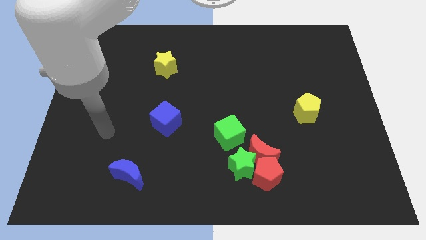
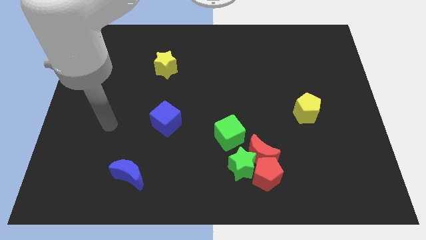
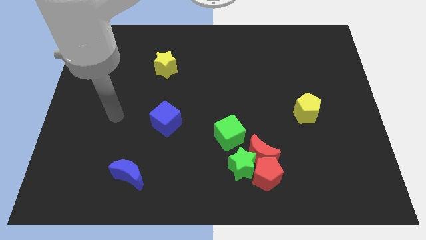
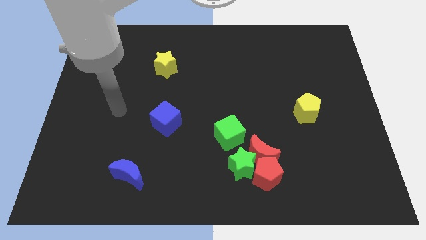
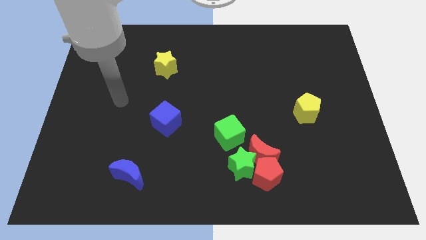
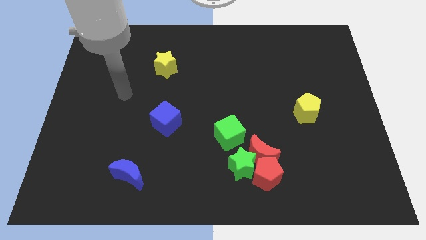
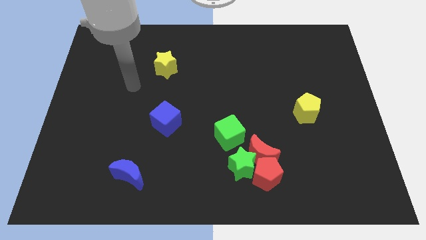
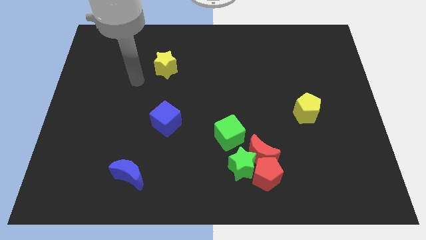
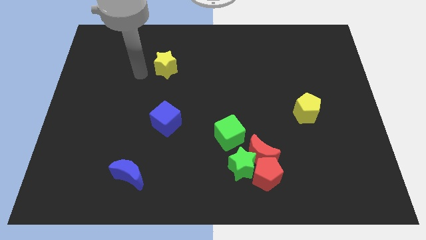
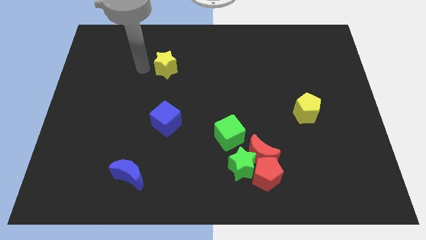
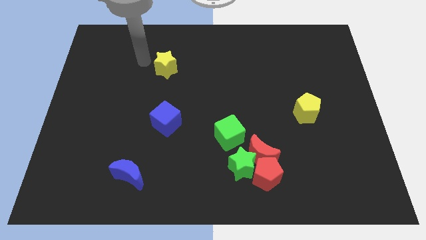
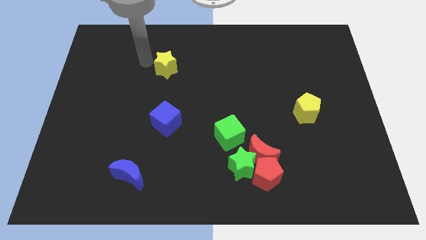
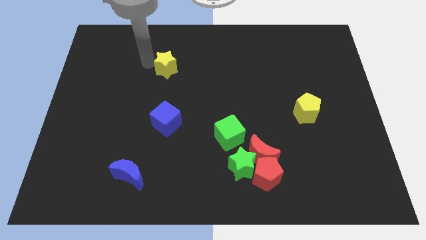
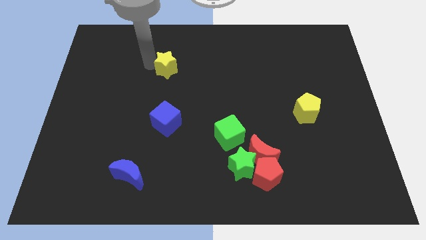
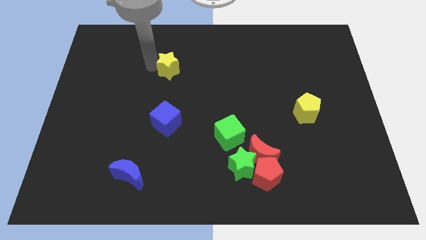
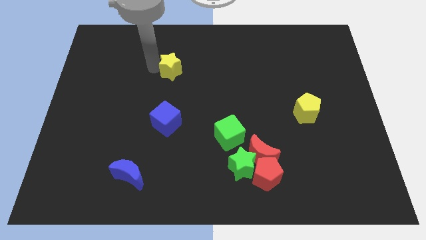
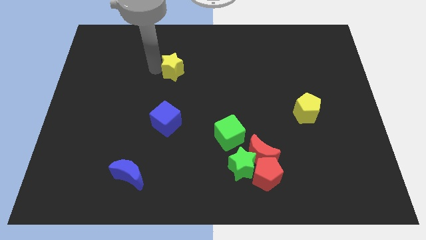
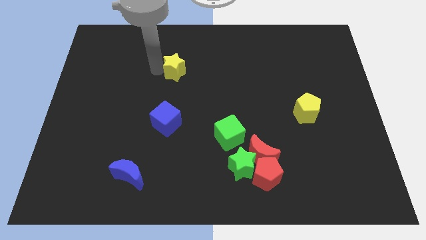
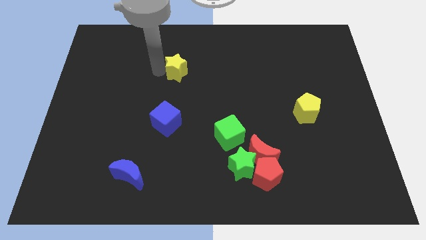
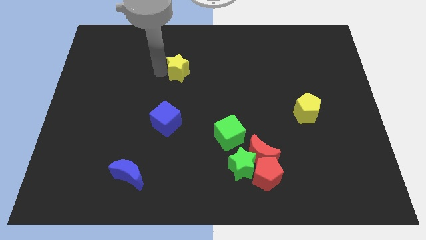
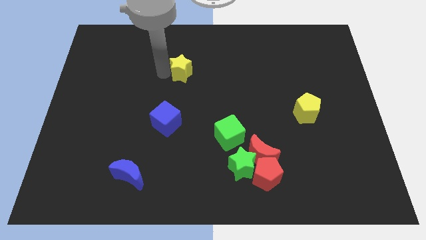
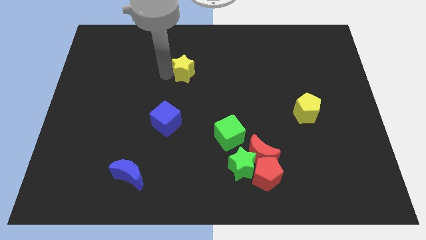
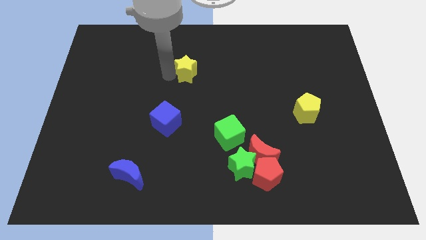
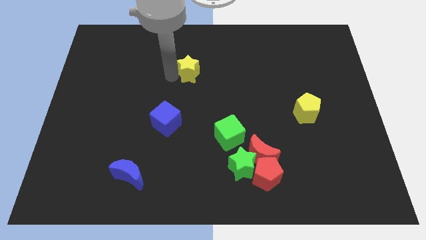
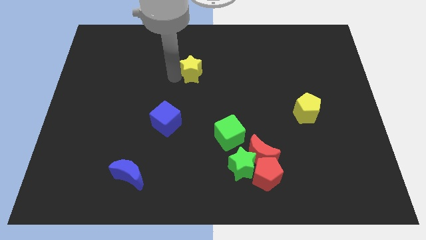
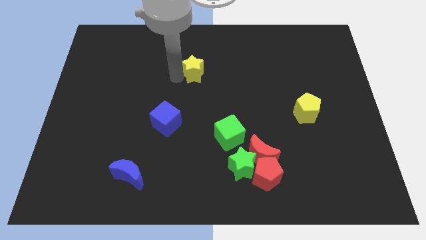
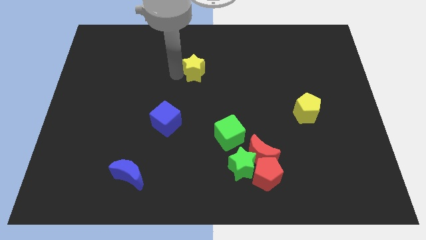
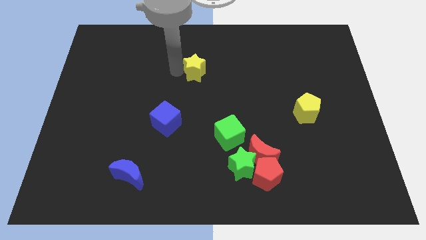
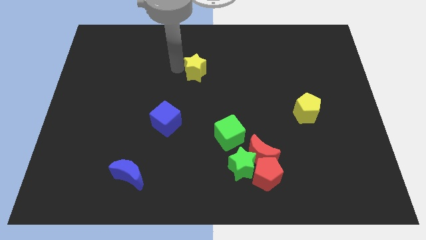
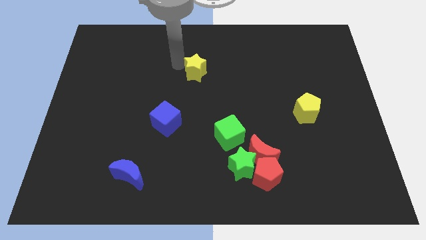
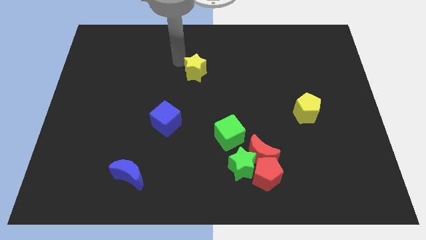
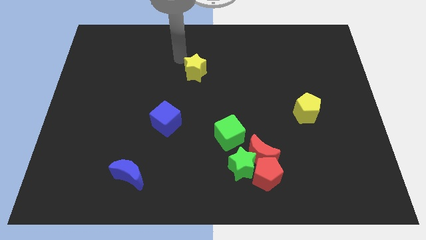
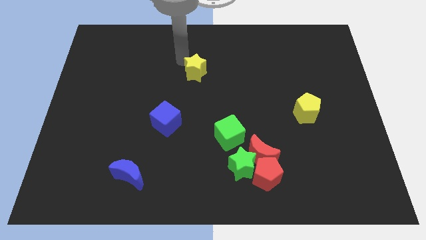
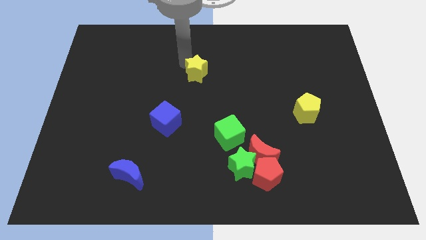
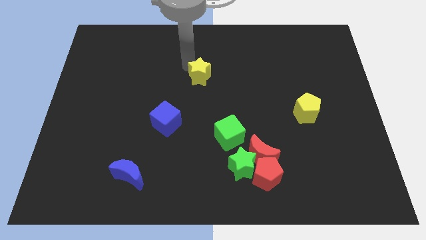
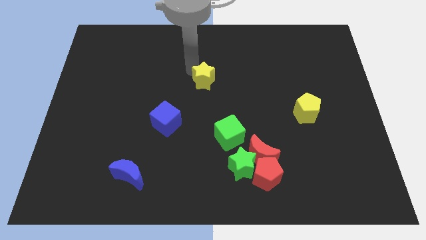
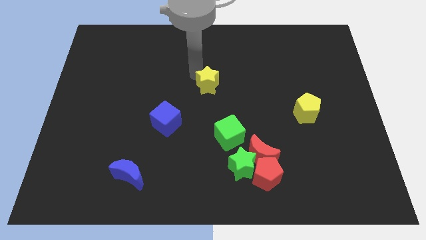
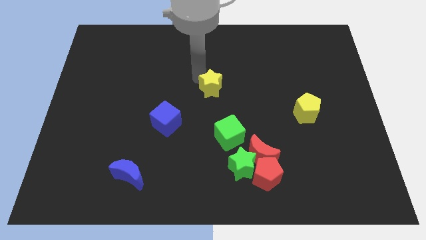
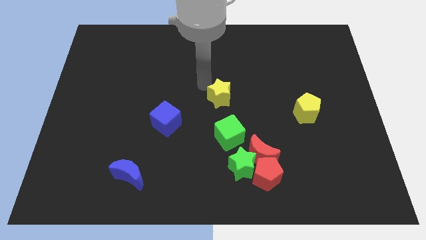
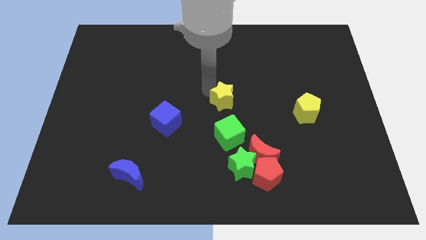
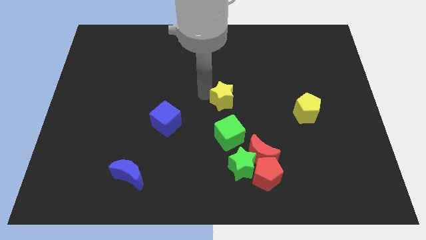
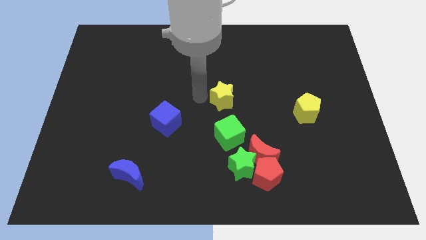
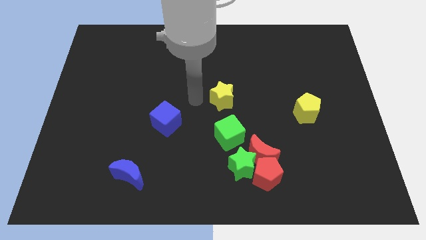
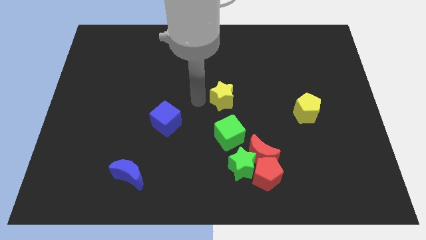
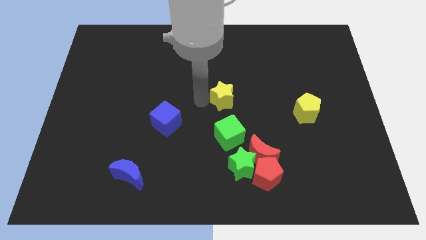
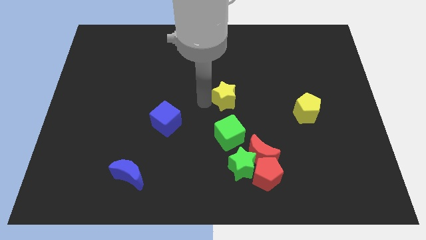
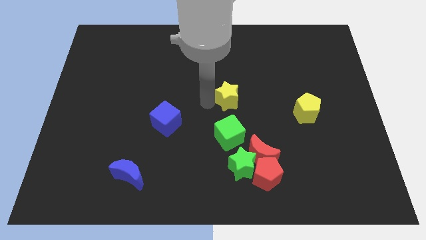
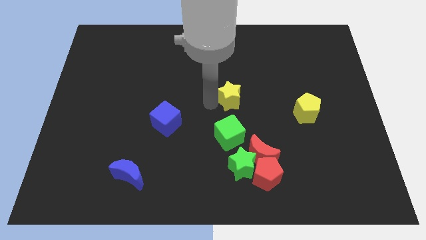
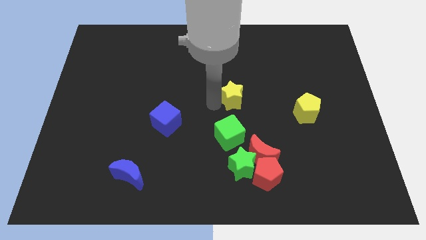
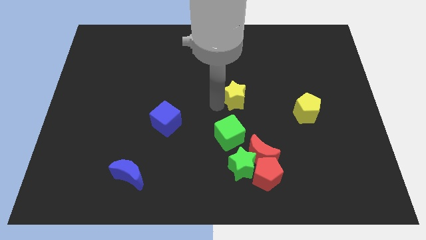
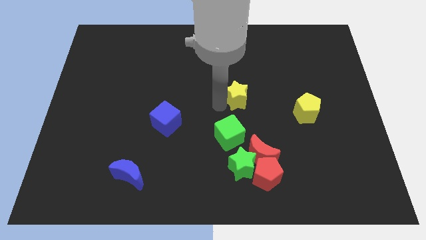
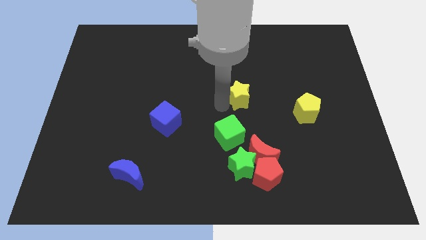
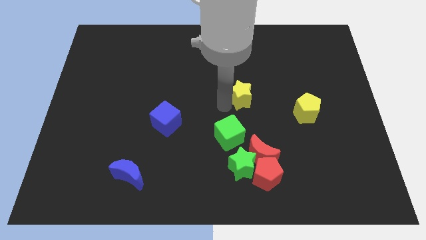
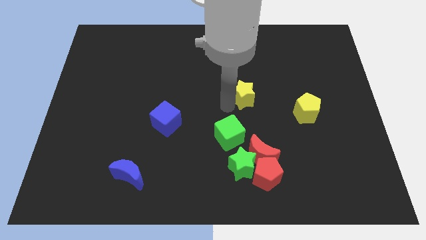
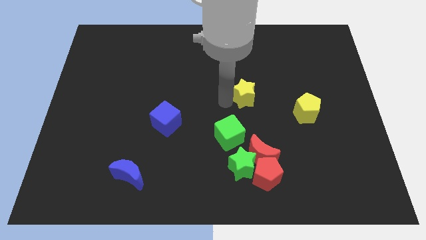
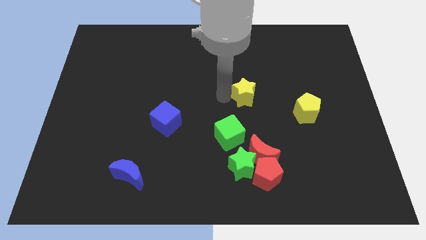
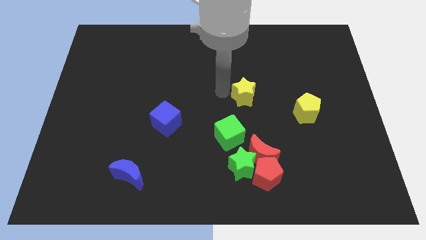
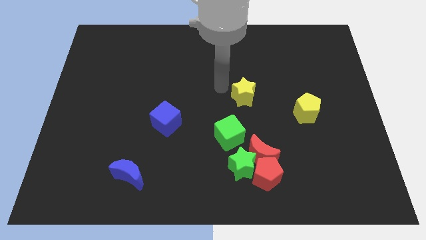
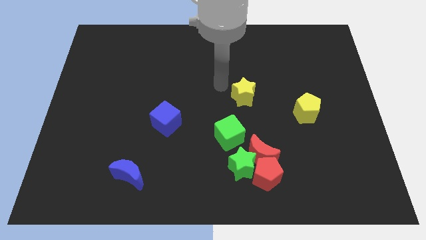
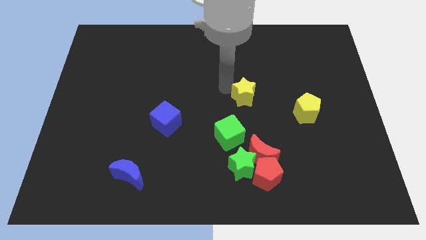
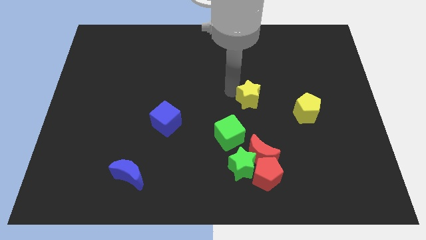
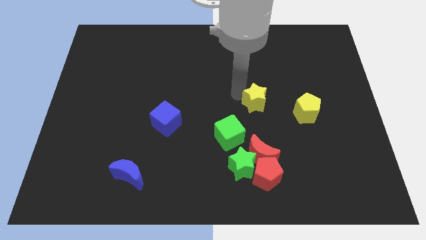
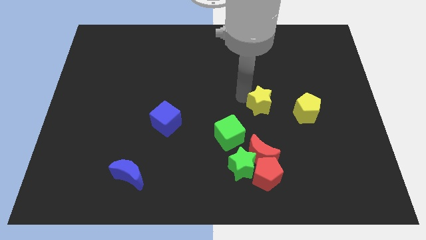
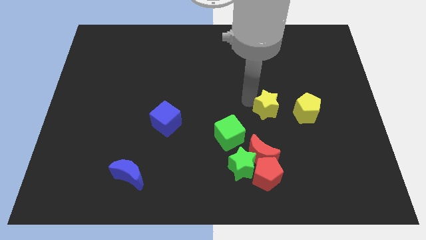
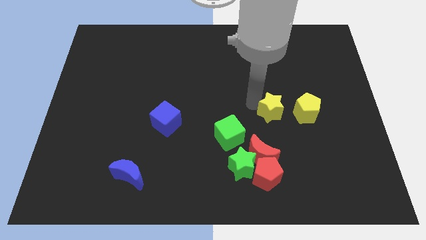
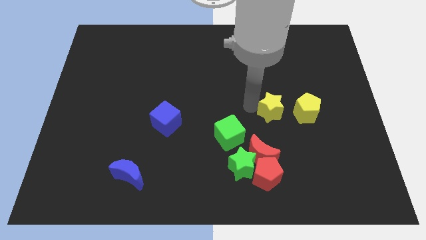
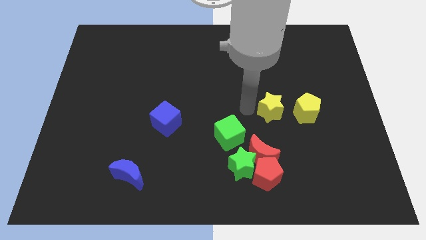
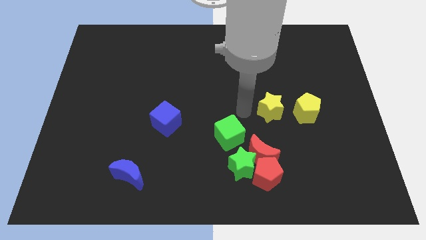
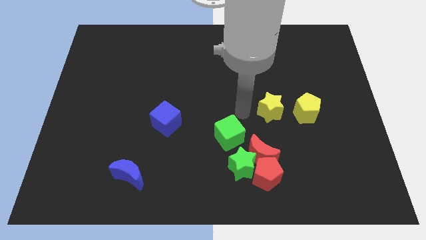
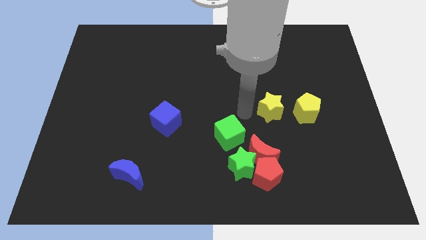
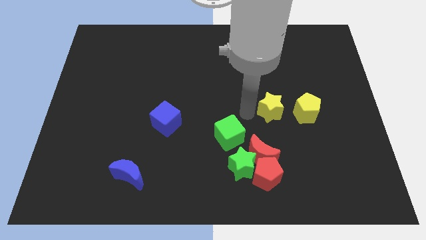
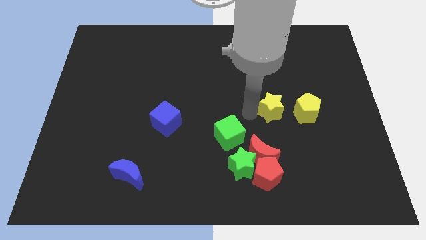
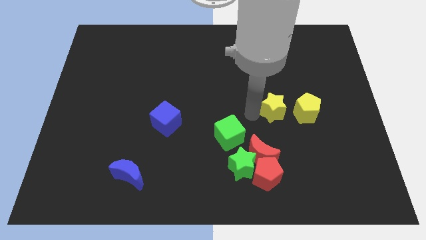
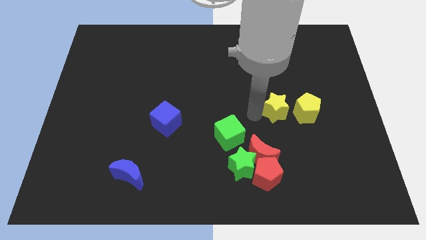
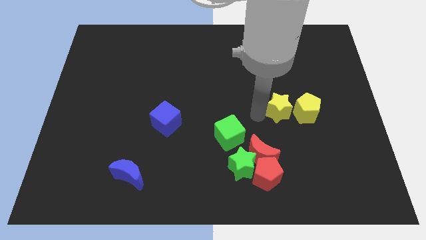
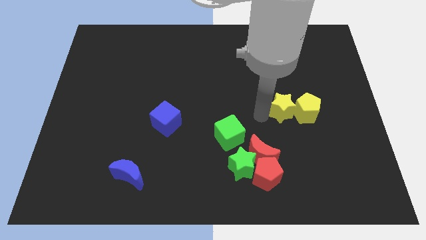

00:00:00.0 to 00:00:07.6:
put the yellow star towards the yellow pentagon
